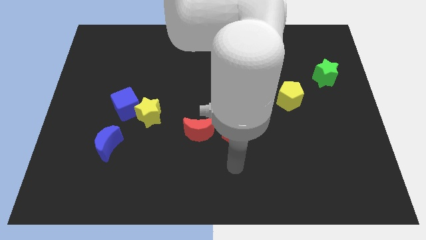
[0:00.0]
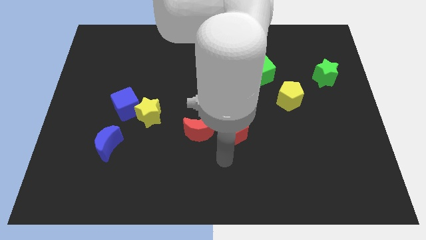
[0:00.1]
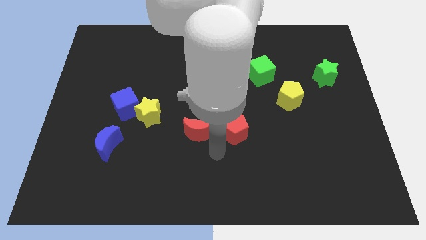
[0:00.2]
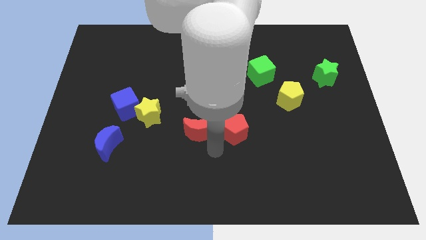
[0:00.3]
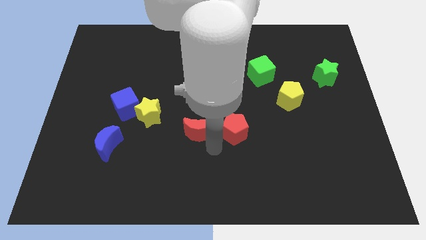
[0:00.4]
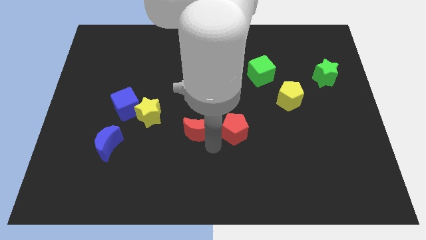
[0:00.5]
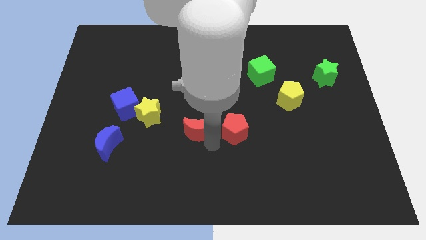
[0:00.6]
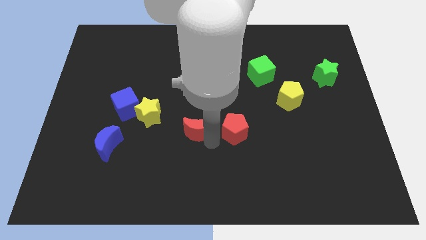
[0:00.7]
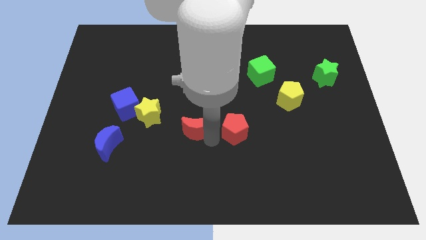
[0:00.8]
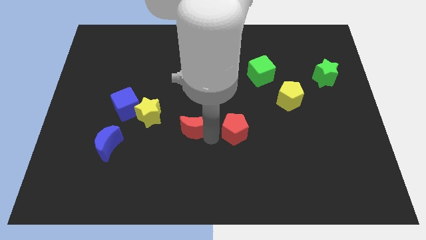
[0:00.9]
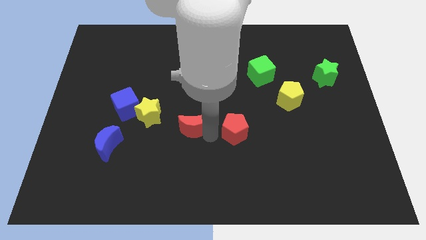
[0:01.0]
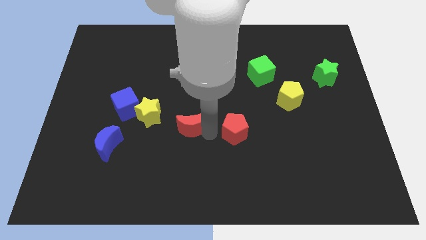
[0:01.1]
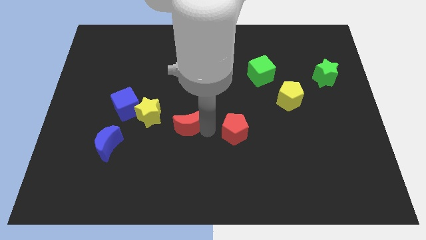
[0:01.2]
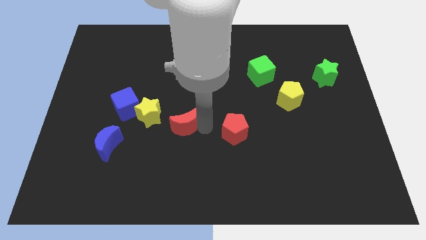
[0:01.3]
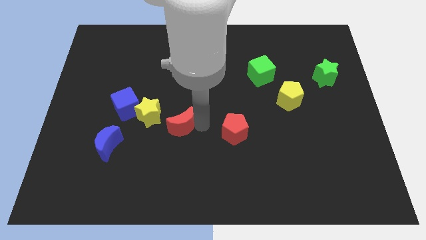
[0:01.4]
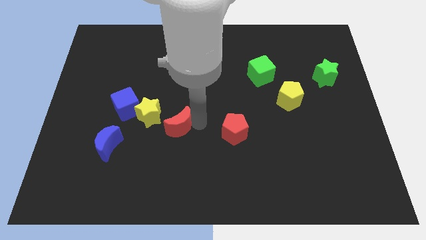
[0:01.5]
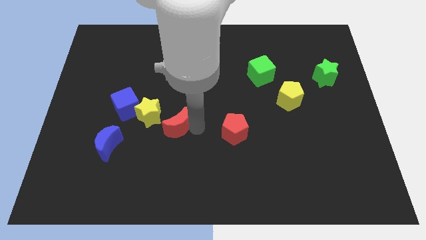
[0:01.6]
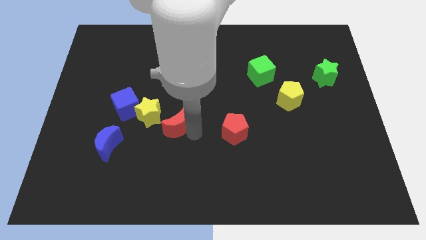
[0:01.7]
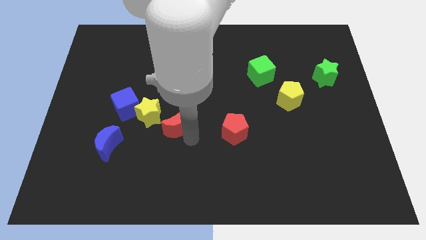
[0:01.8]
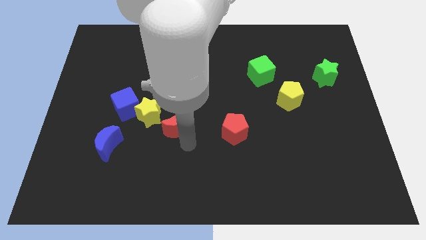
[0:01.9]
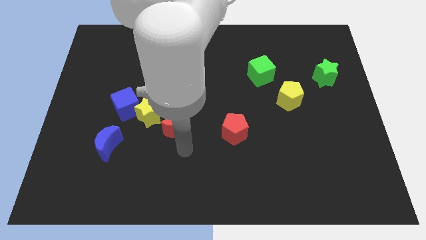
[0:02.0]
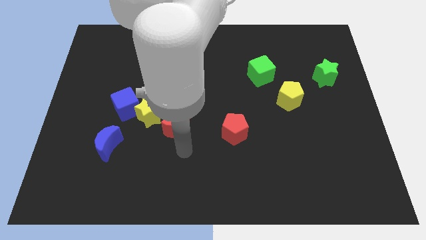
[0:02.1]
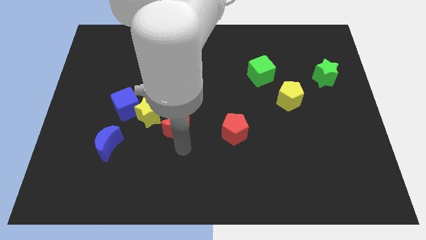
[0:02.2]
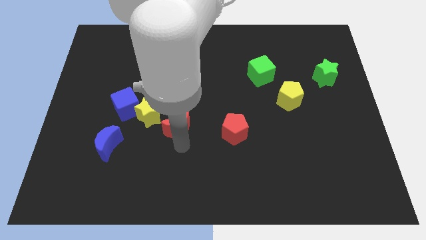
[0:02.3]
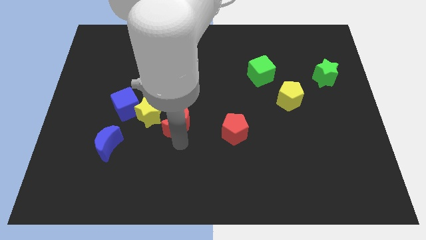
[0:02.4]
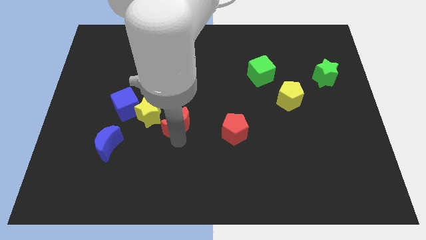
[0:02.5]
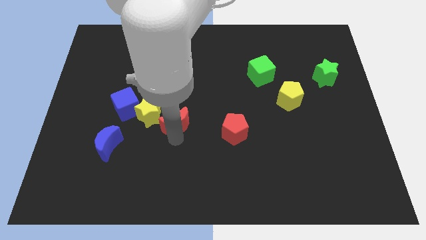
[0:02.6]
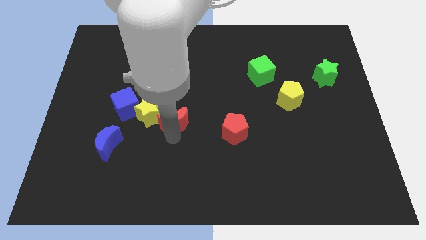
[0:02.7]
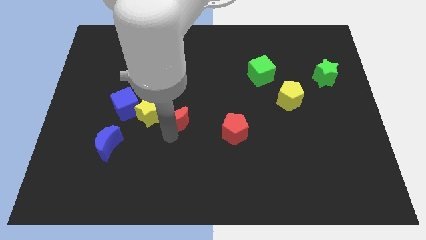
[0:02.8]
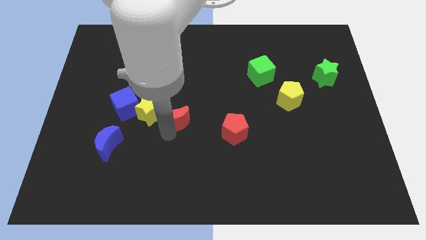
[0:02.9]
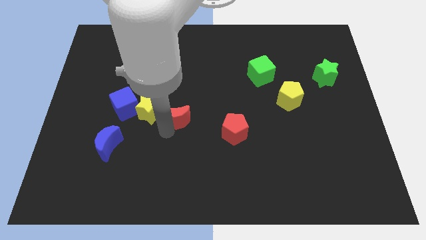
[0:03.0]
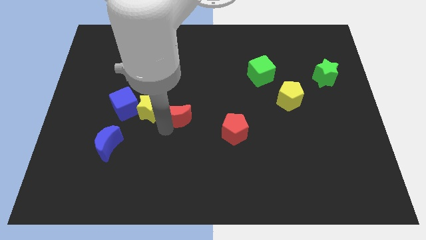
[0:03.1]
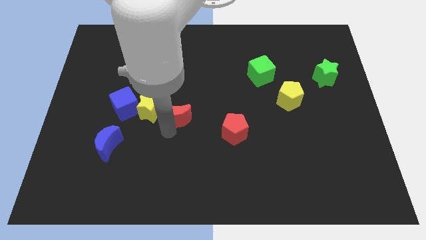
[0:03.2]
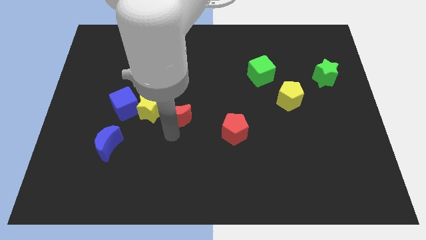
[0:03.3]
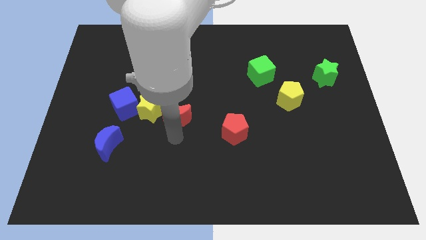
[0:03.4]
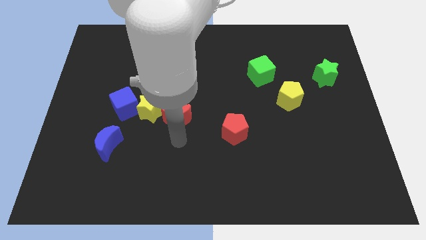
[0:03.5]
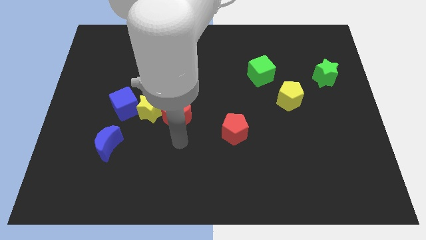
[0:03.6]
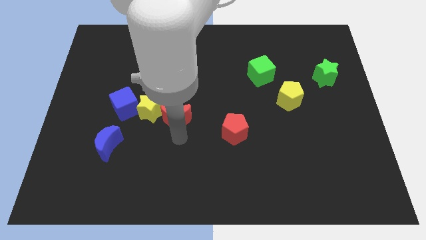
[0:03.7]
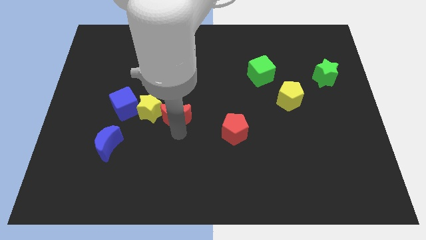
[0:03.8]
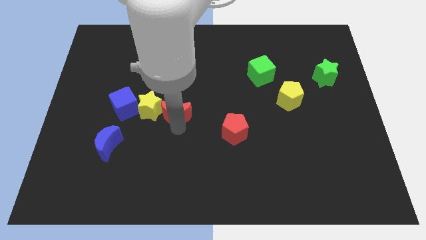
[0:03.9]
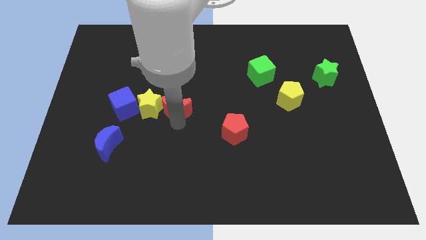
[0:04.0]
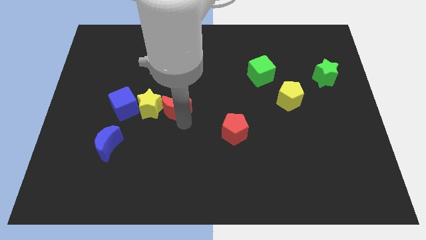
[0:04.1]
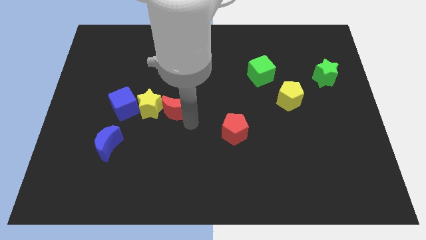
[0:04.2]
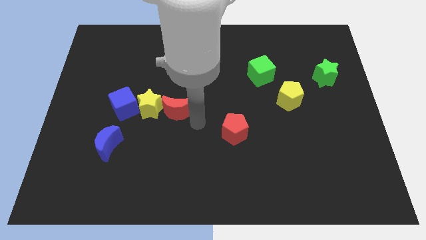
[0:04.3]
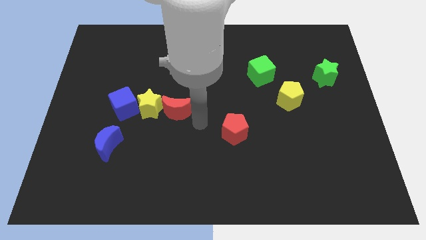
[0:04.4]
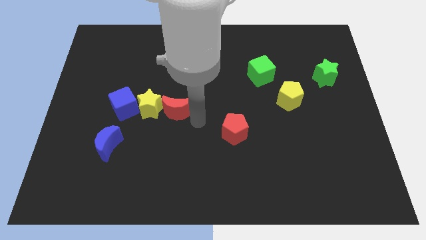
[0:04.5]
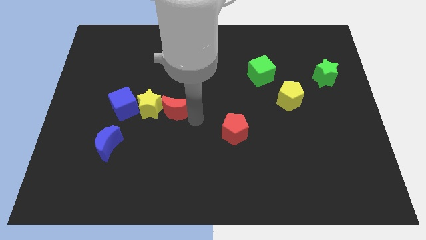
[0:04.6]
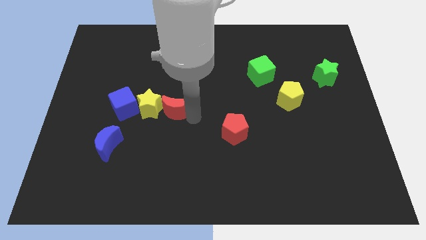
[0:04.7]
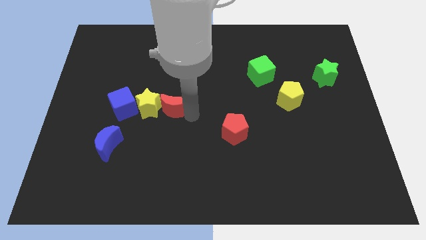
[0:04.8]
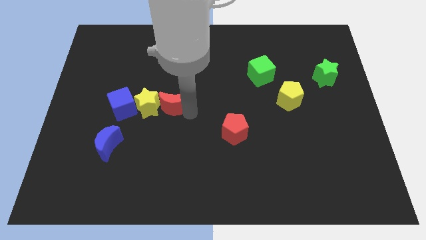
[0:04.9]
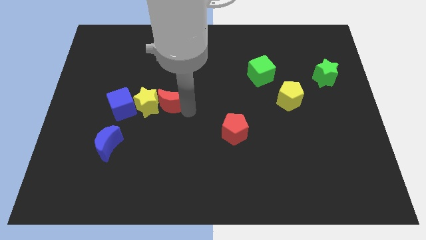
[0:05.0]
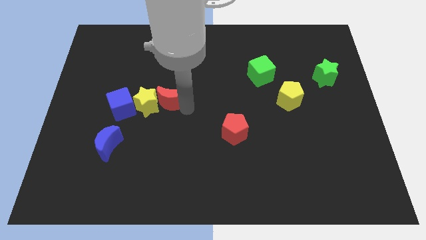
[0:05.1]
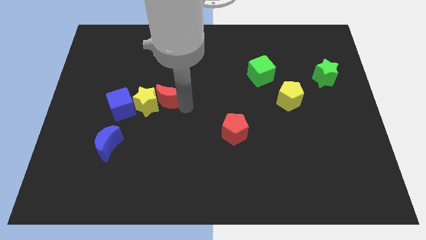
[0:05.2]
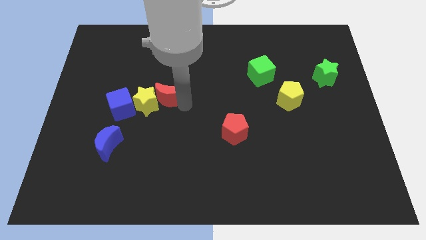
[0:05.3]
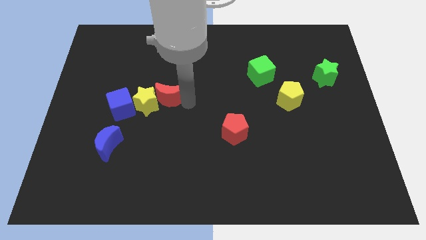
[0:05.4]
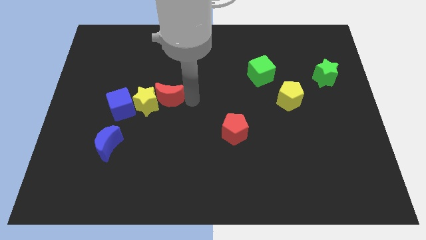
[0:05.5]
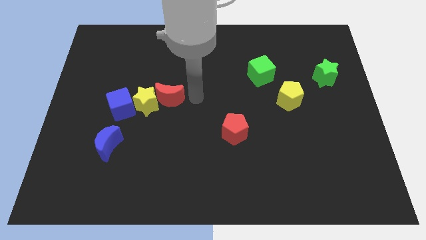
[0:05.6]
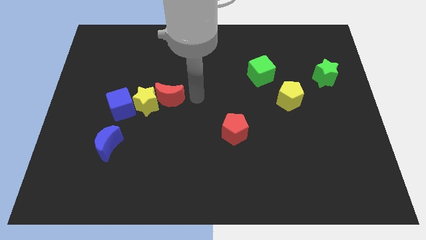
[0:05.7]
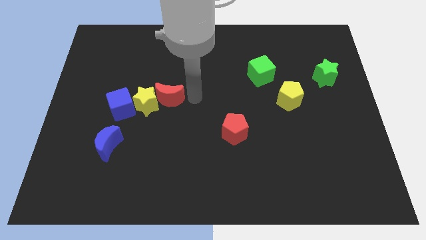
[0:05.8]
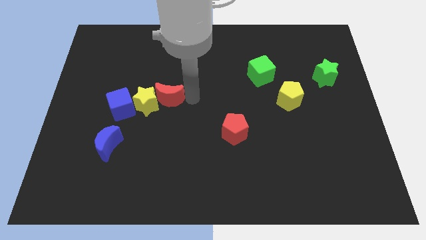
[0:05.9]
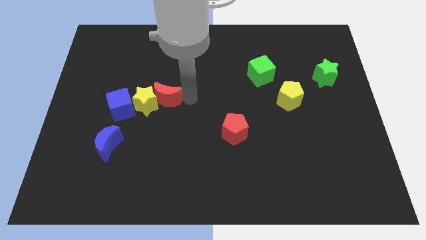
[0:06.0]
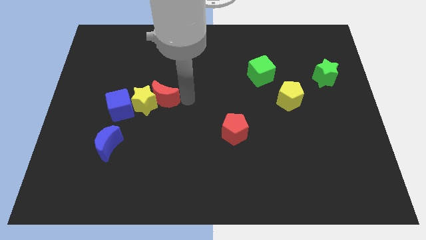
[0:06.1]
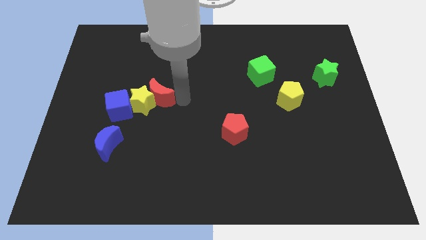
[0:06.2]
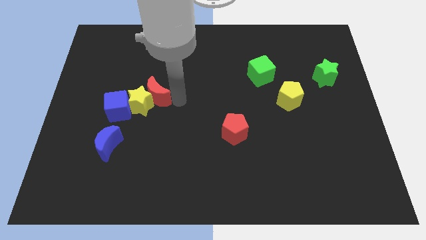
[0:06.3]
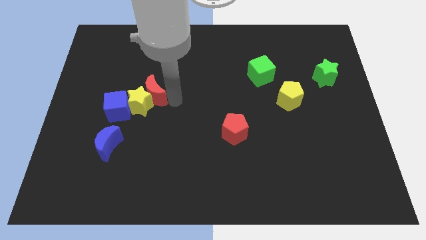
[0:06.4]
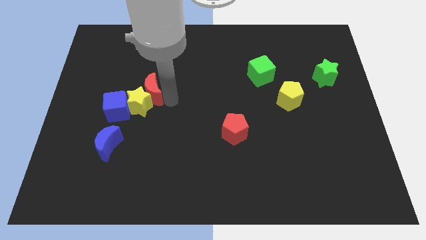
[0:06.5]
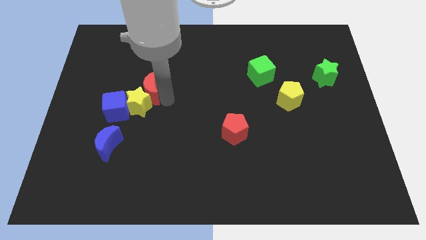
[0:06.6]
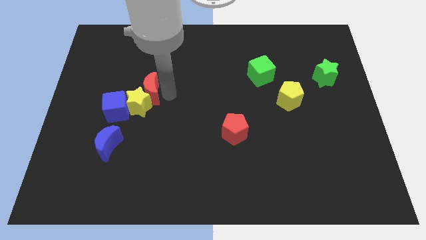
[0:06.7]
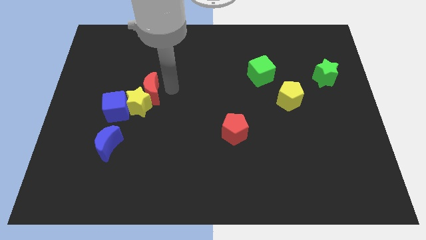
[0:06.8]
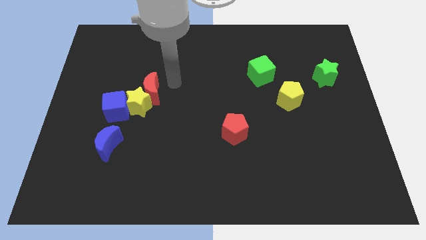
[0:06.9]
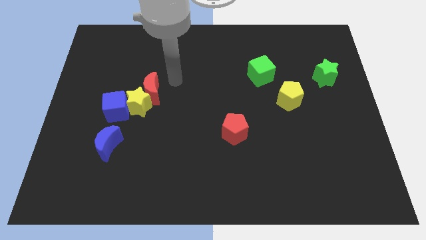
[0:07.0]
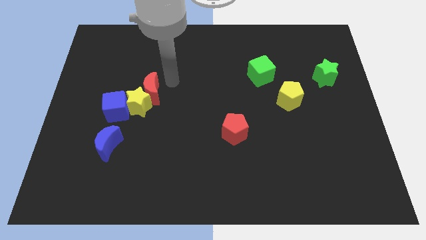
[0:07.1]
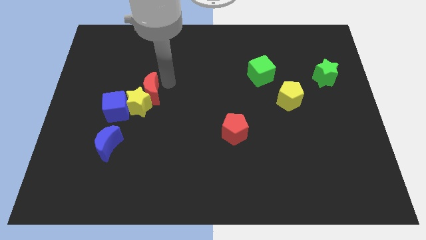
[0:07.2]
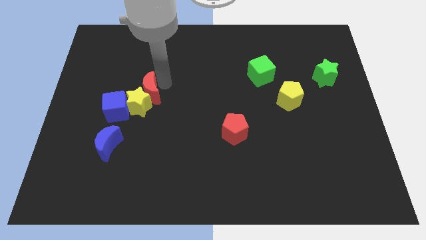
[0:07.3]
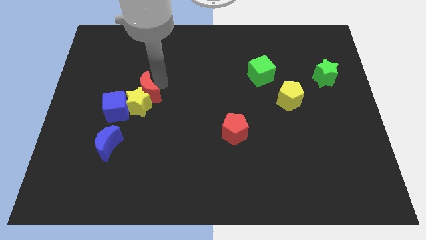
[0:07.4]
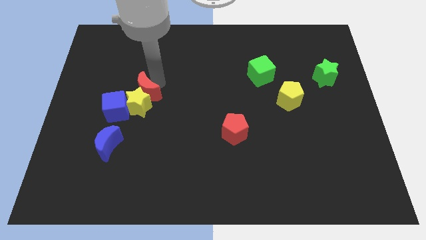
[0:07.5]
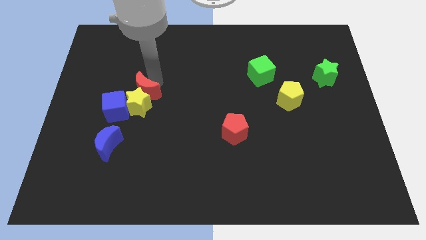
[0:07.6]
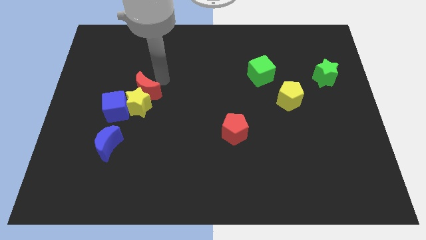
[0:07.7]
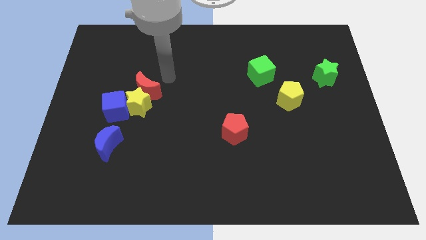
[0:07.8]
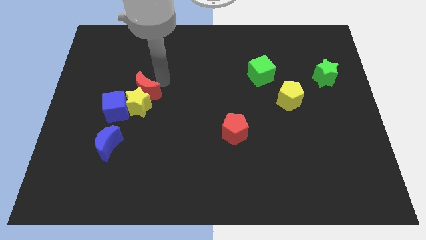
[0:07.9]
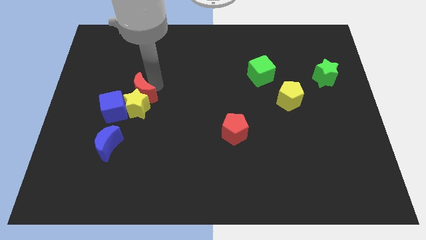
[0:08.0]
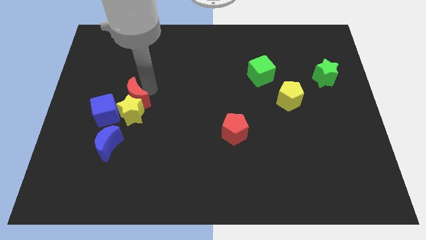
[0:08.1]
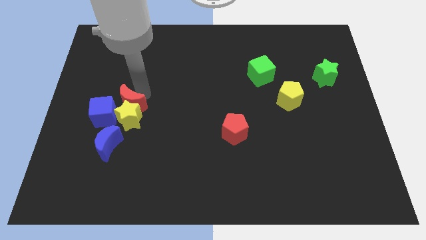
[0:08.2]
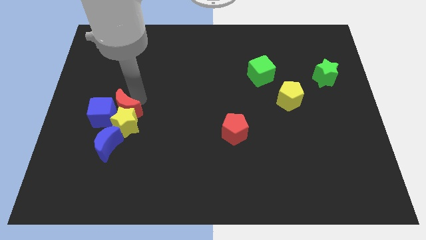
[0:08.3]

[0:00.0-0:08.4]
move the red moon to the blue cube
